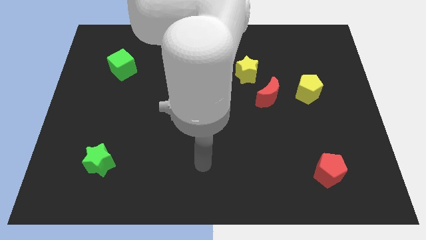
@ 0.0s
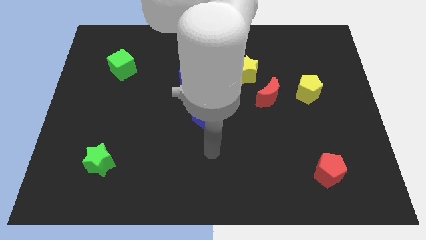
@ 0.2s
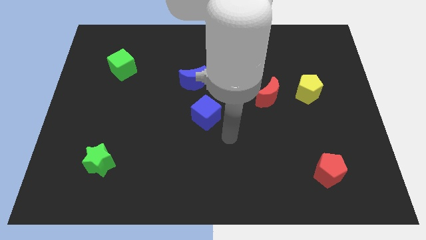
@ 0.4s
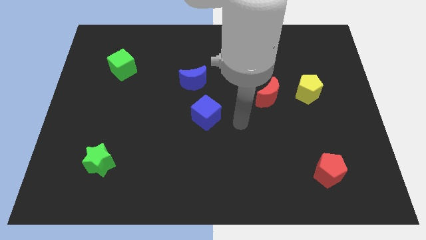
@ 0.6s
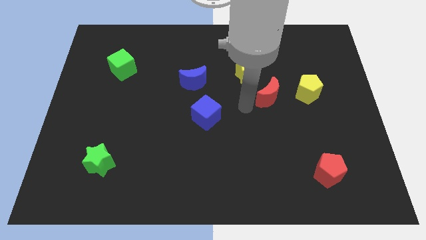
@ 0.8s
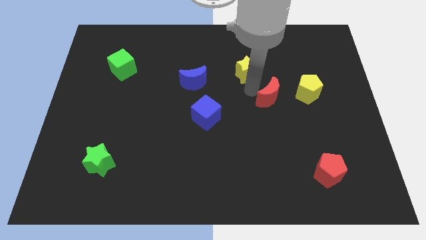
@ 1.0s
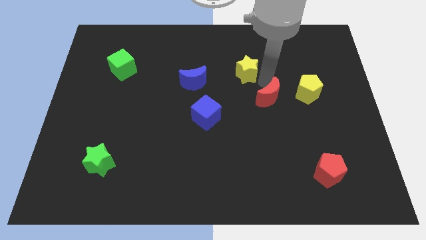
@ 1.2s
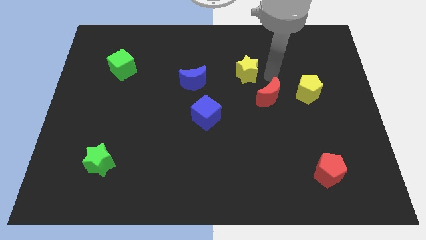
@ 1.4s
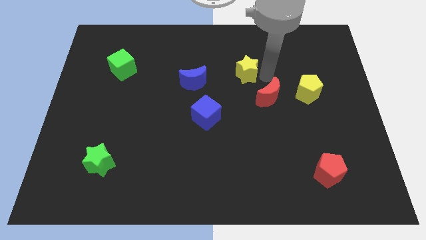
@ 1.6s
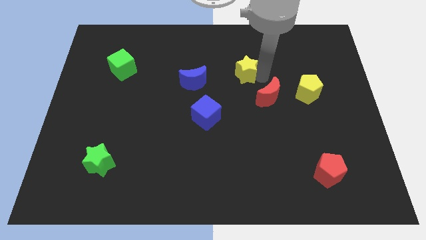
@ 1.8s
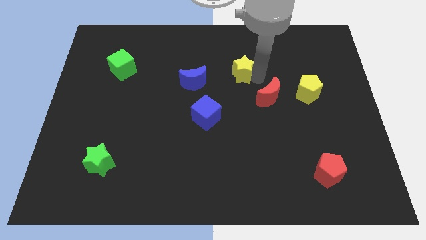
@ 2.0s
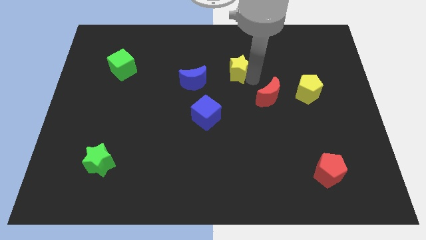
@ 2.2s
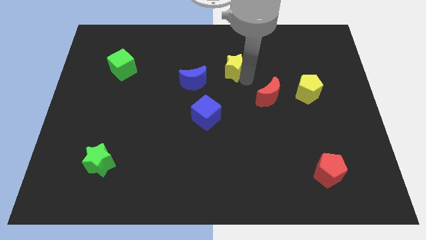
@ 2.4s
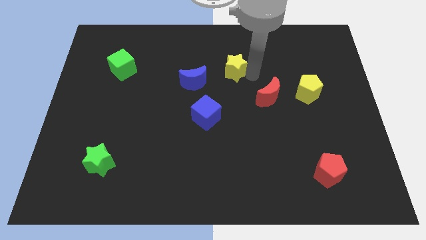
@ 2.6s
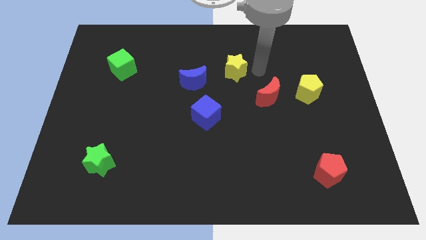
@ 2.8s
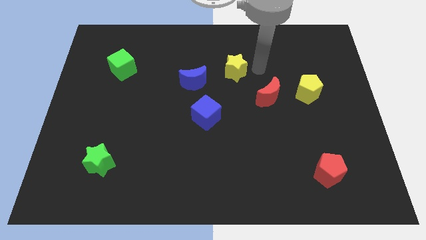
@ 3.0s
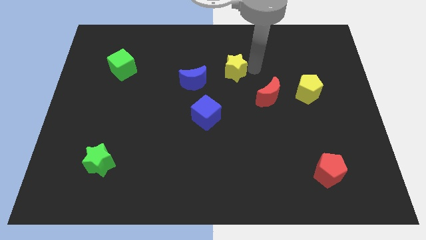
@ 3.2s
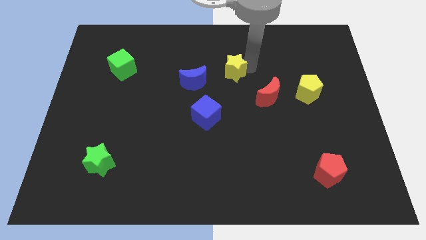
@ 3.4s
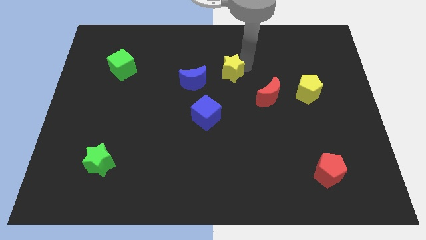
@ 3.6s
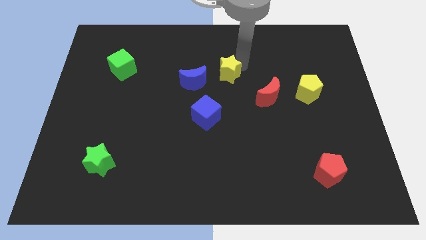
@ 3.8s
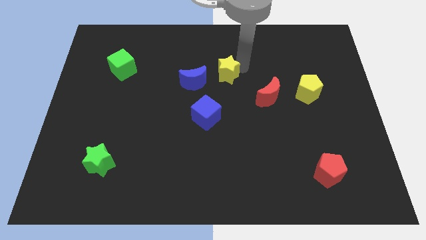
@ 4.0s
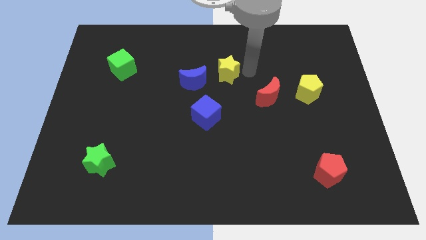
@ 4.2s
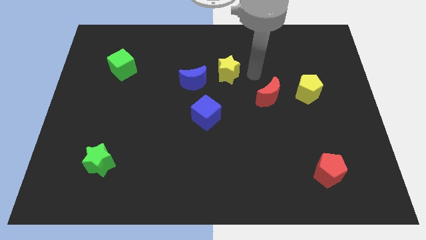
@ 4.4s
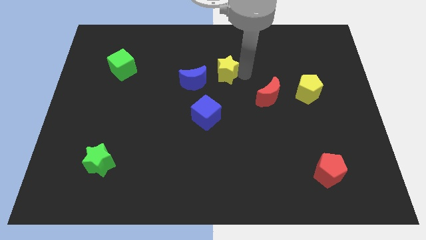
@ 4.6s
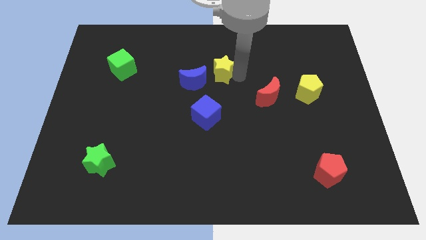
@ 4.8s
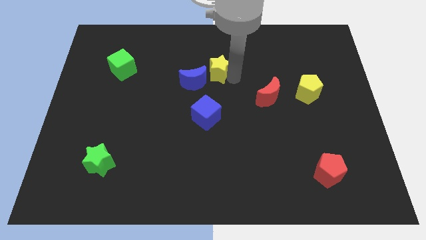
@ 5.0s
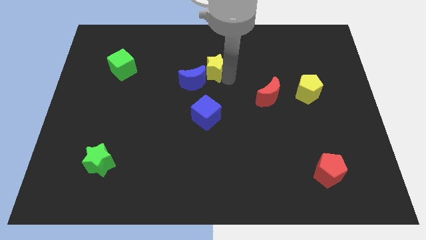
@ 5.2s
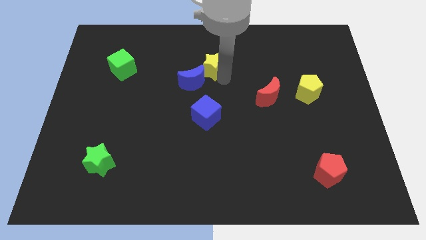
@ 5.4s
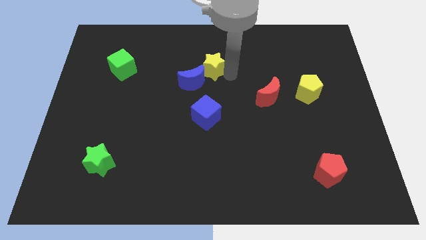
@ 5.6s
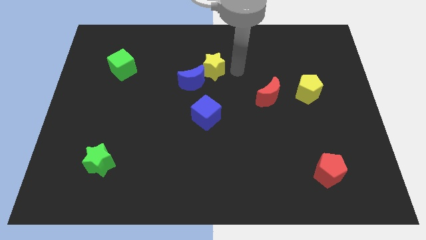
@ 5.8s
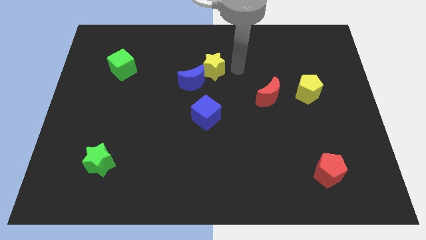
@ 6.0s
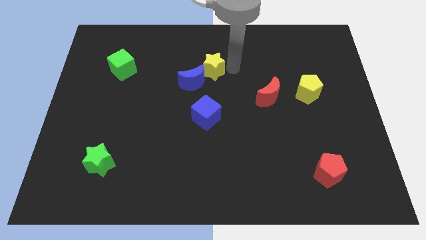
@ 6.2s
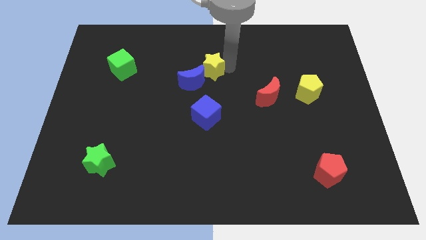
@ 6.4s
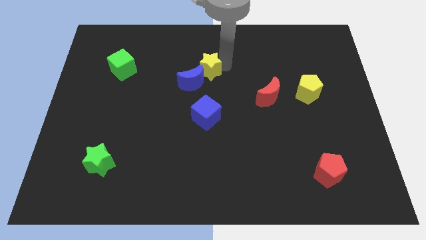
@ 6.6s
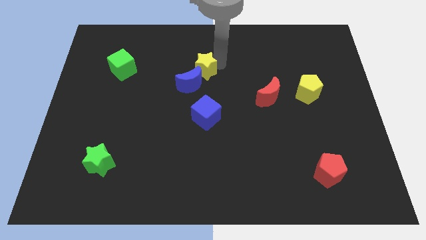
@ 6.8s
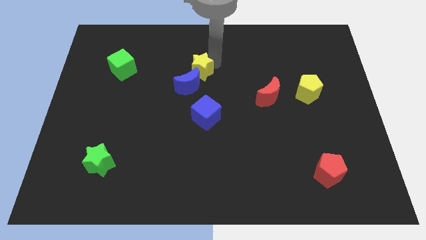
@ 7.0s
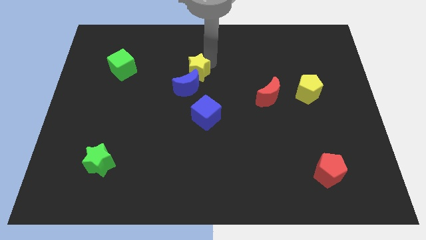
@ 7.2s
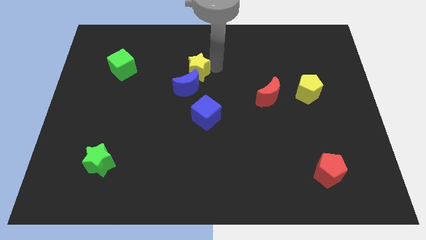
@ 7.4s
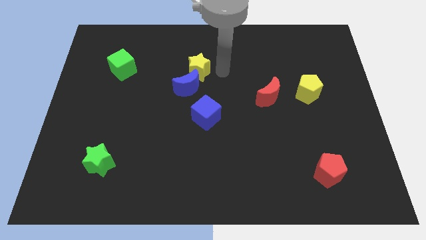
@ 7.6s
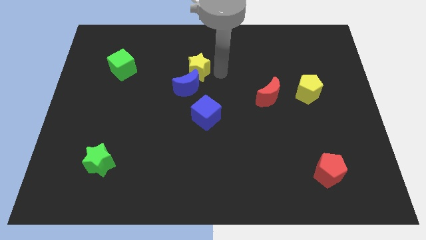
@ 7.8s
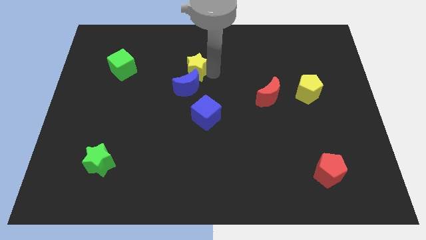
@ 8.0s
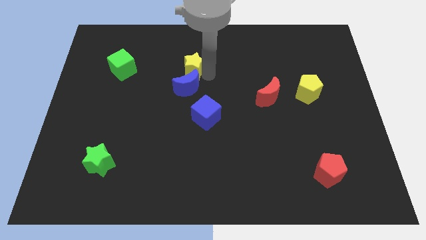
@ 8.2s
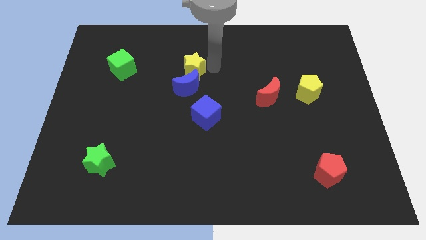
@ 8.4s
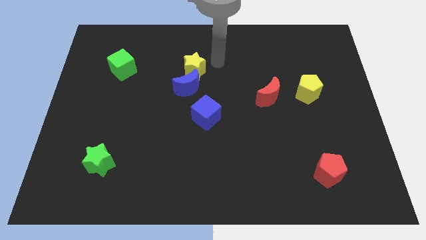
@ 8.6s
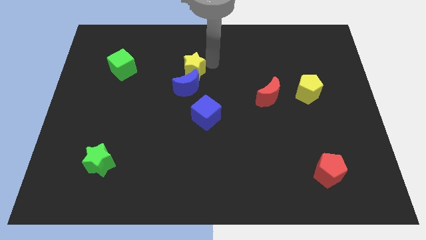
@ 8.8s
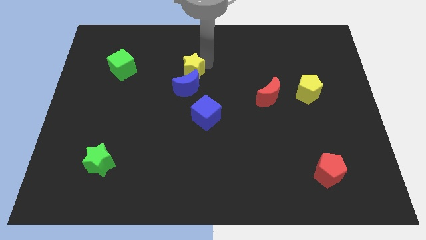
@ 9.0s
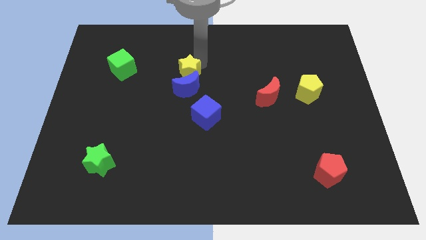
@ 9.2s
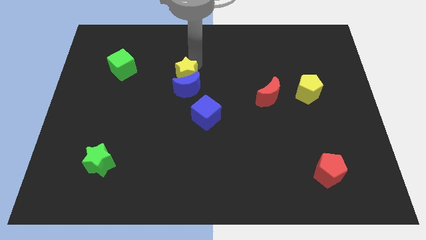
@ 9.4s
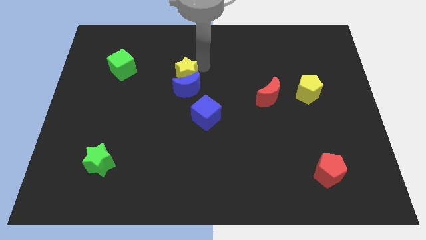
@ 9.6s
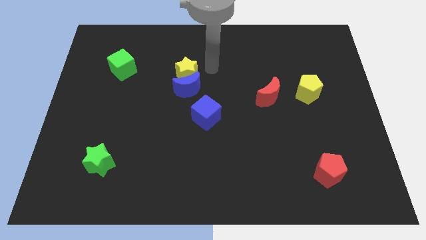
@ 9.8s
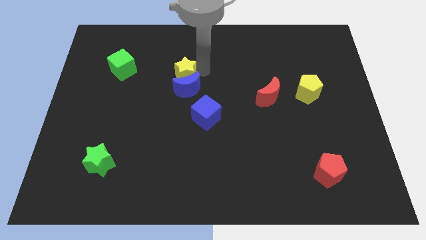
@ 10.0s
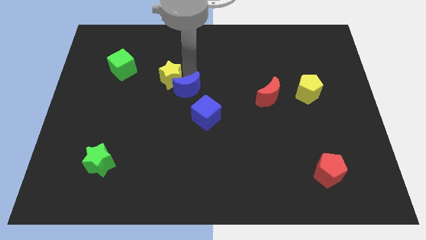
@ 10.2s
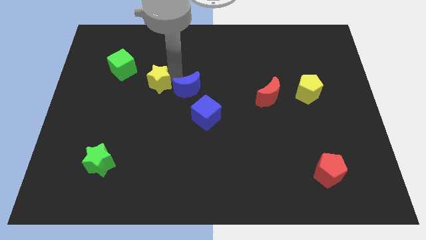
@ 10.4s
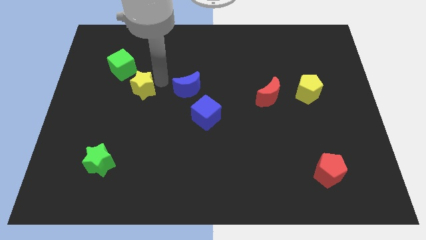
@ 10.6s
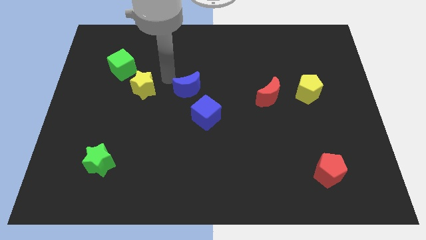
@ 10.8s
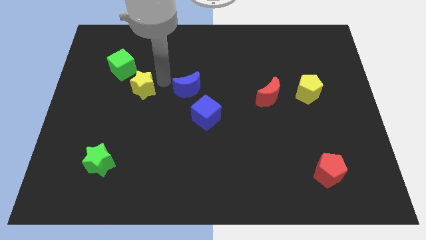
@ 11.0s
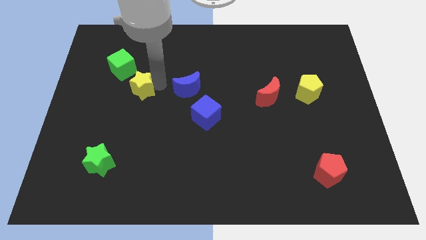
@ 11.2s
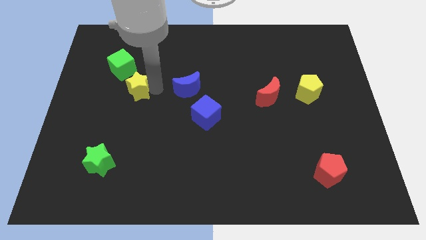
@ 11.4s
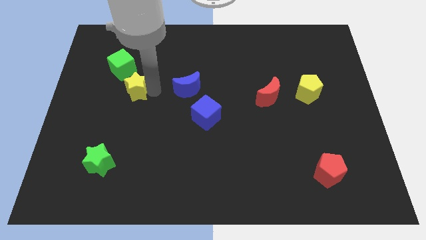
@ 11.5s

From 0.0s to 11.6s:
slide the yellow star to the bottom of the green cube

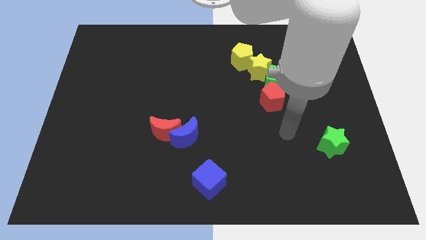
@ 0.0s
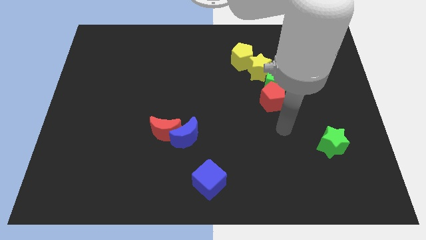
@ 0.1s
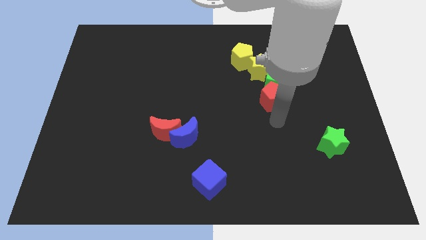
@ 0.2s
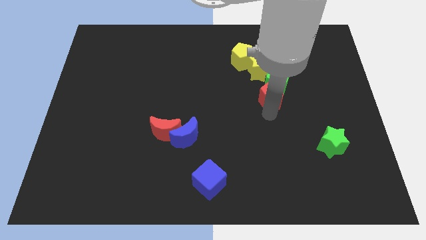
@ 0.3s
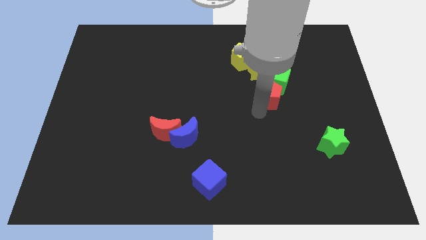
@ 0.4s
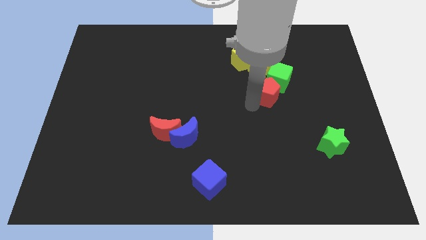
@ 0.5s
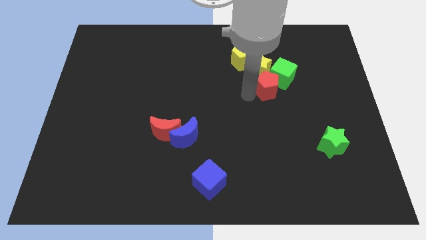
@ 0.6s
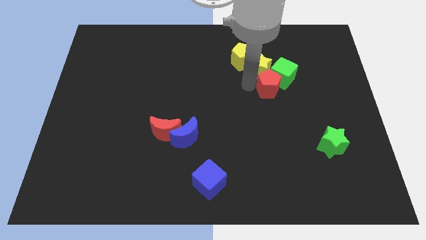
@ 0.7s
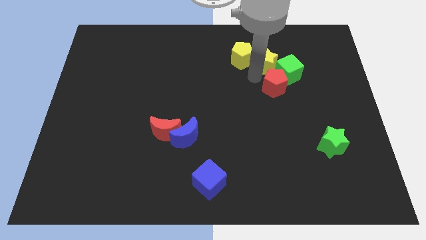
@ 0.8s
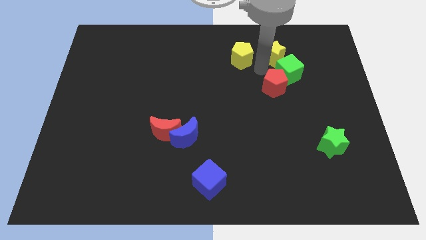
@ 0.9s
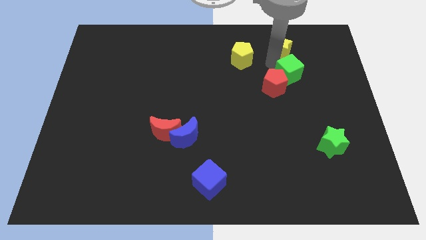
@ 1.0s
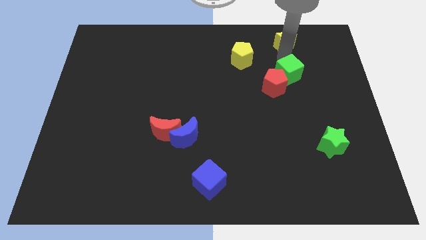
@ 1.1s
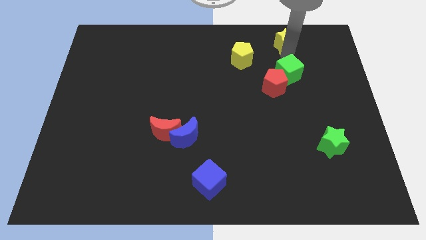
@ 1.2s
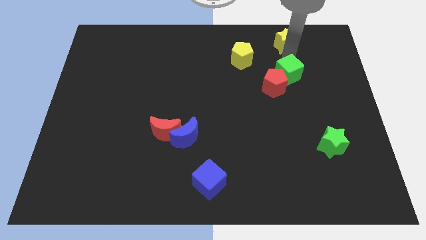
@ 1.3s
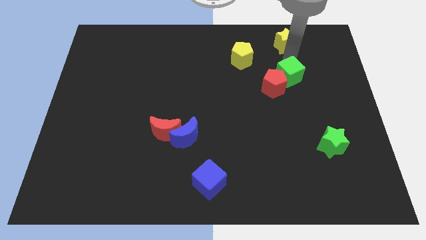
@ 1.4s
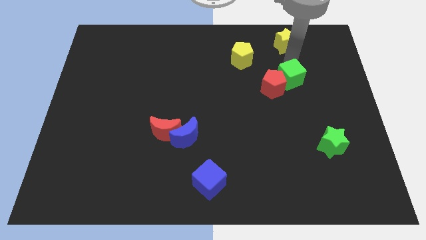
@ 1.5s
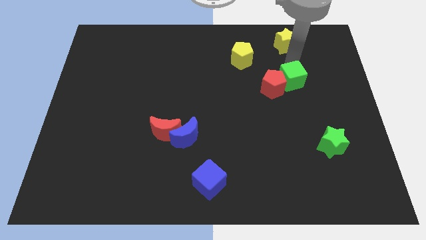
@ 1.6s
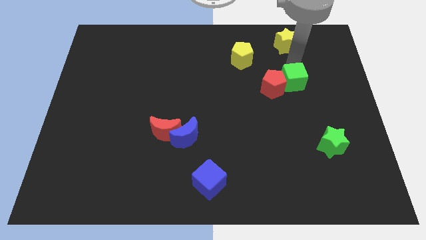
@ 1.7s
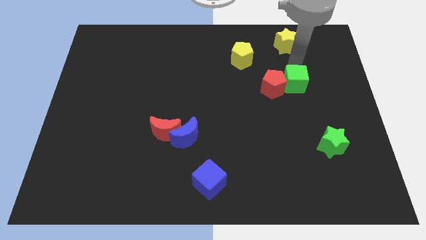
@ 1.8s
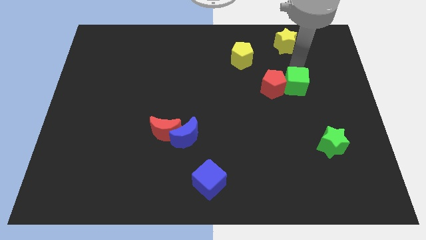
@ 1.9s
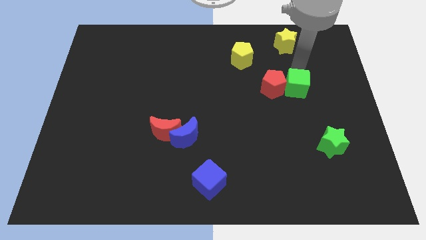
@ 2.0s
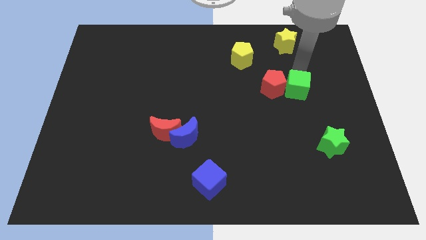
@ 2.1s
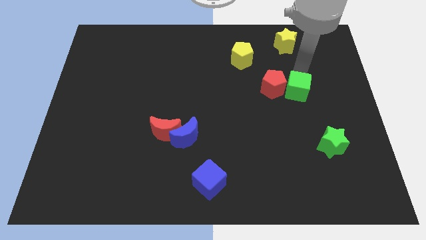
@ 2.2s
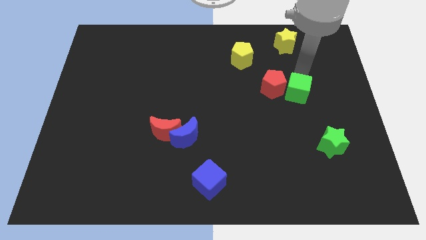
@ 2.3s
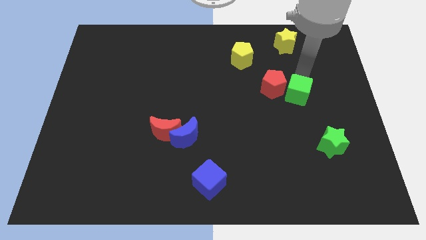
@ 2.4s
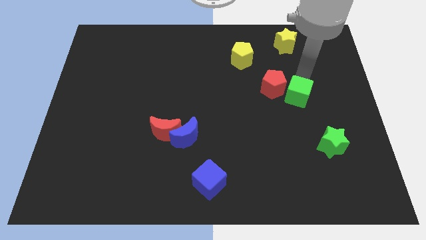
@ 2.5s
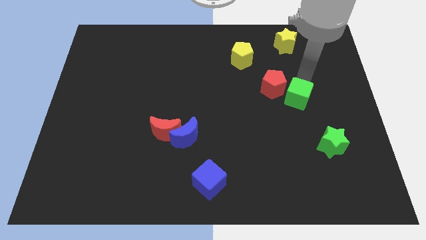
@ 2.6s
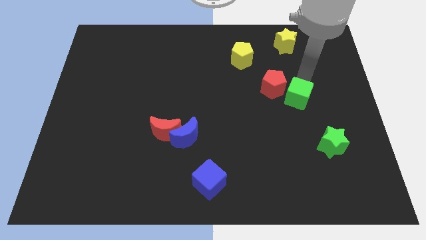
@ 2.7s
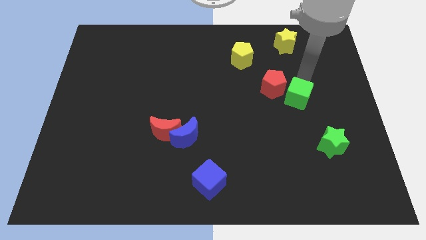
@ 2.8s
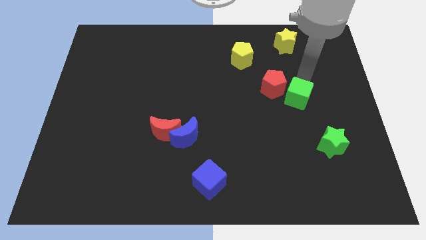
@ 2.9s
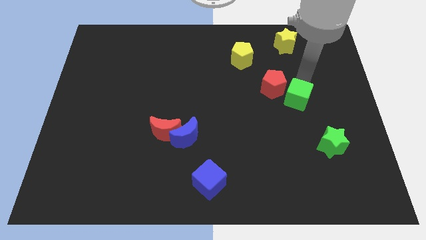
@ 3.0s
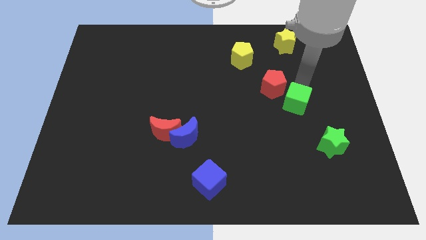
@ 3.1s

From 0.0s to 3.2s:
push the green cube below the red pentagon
